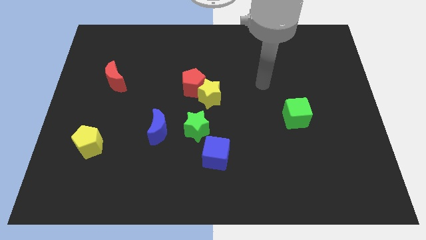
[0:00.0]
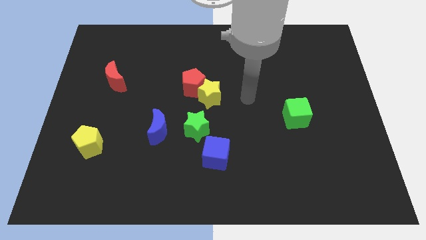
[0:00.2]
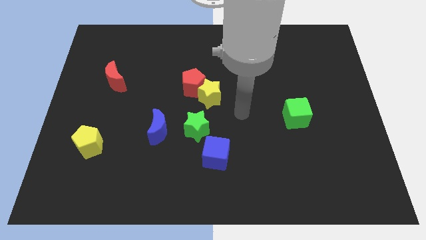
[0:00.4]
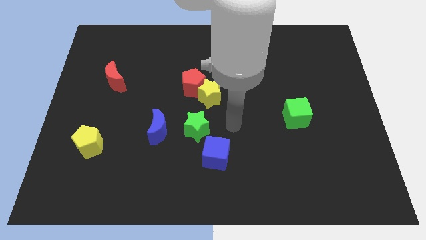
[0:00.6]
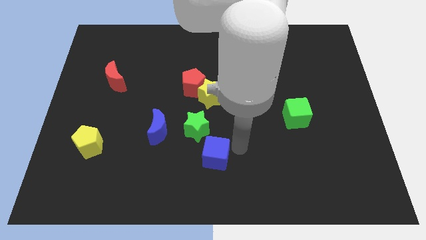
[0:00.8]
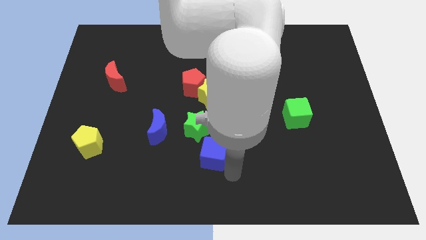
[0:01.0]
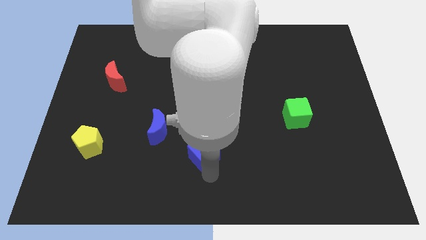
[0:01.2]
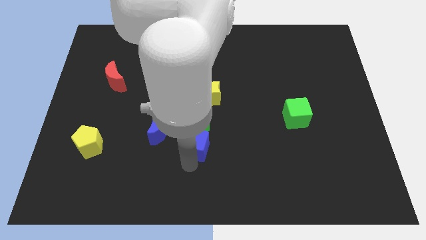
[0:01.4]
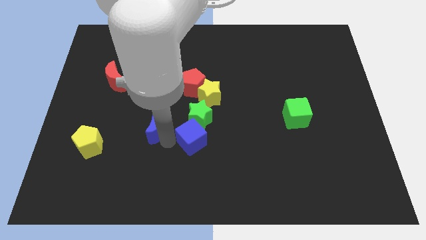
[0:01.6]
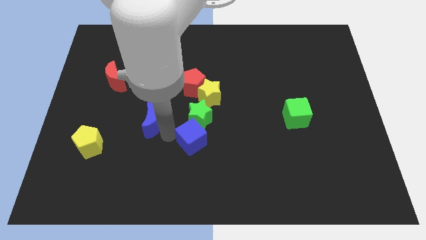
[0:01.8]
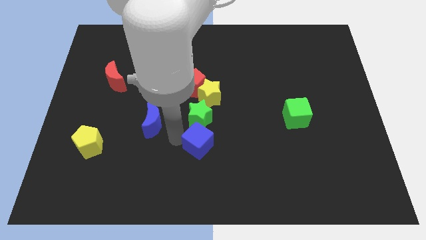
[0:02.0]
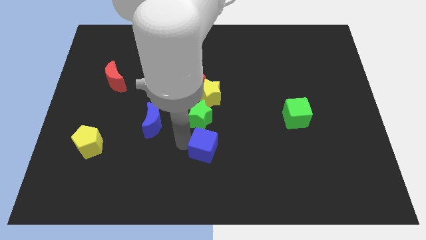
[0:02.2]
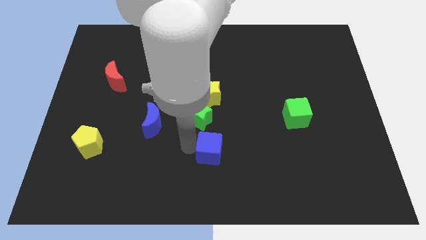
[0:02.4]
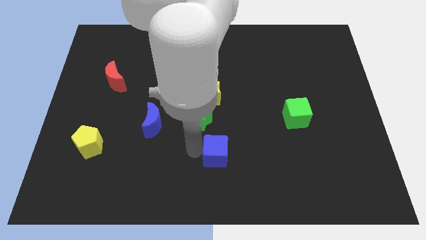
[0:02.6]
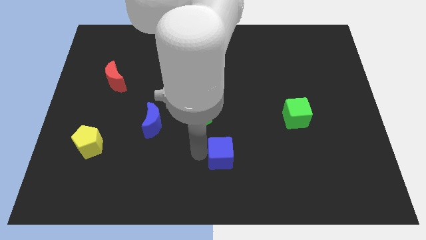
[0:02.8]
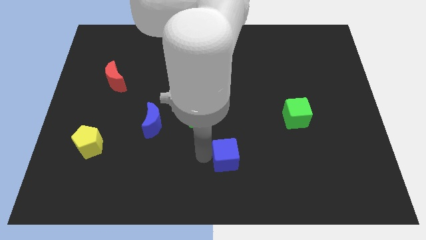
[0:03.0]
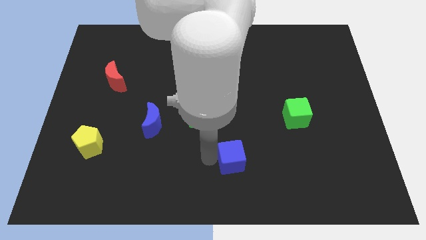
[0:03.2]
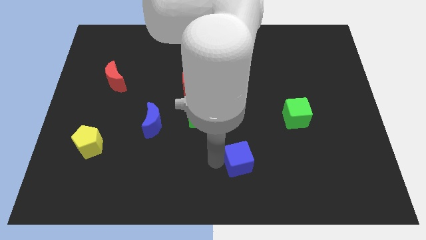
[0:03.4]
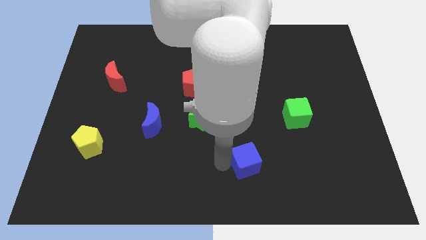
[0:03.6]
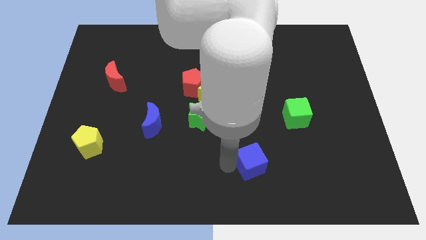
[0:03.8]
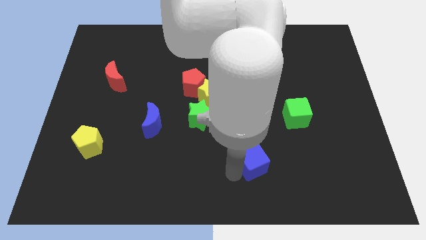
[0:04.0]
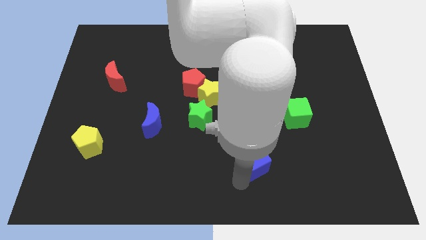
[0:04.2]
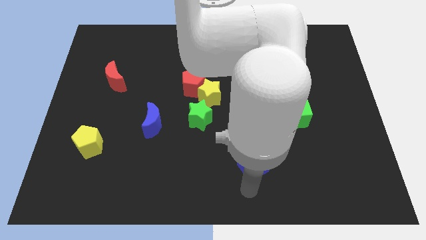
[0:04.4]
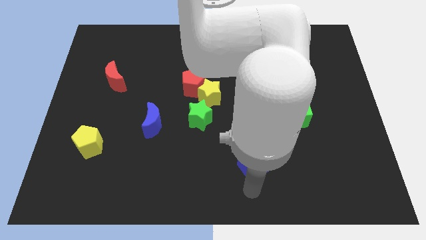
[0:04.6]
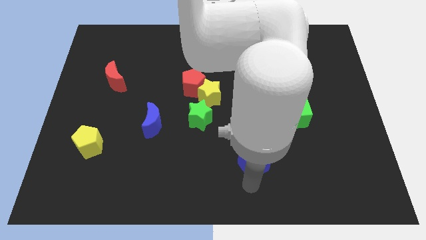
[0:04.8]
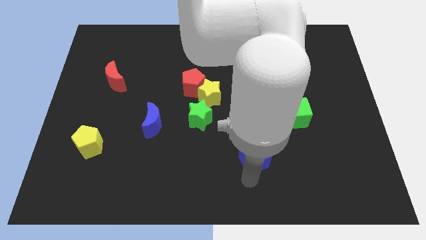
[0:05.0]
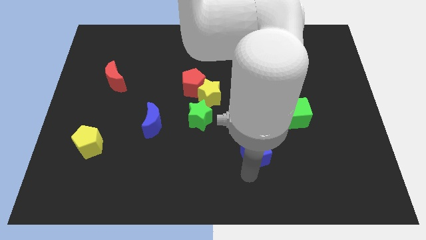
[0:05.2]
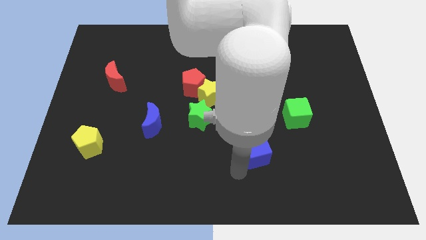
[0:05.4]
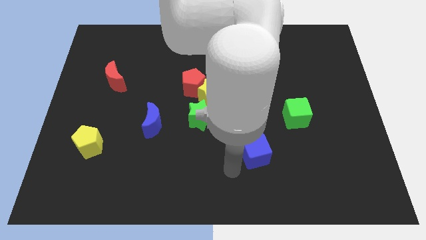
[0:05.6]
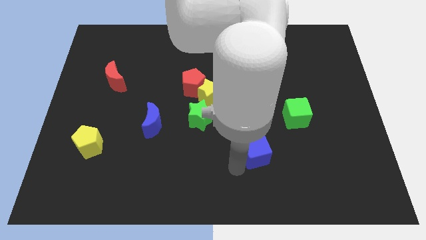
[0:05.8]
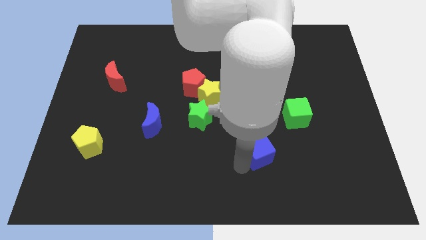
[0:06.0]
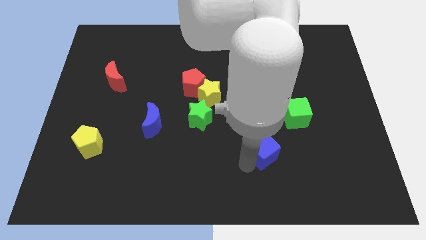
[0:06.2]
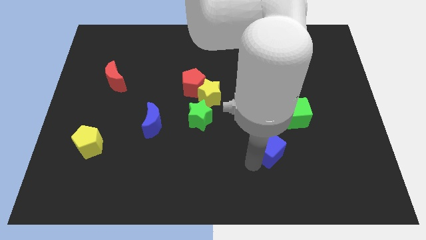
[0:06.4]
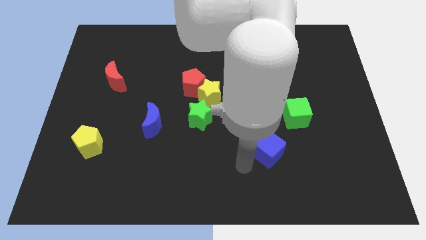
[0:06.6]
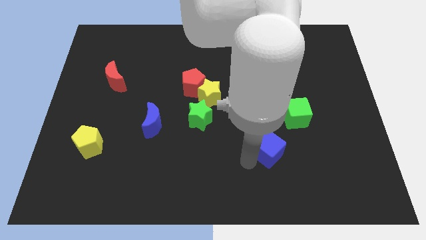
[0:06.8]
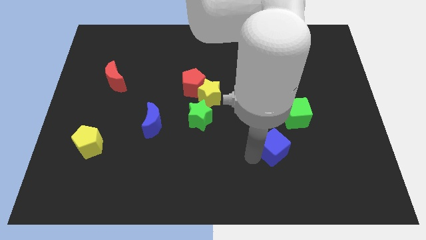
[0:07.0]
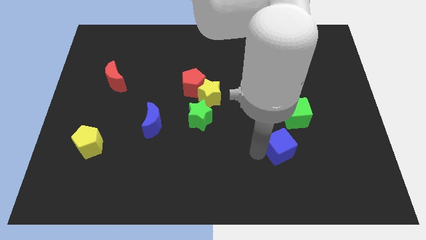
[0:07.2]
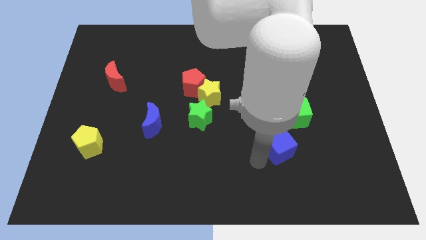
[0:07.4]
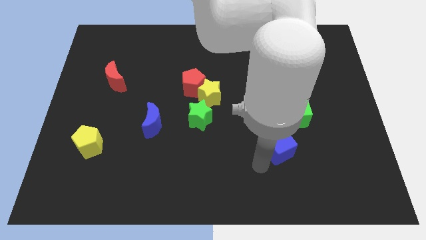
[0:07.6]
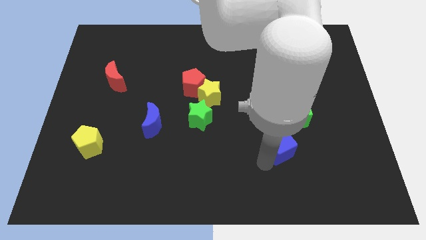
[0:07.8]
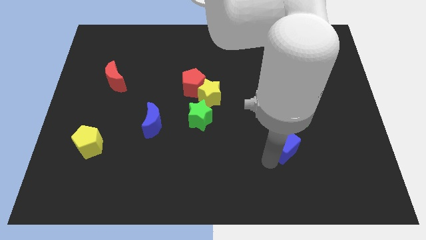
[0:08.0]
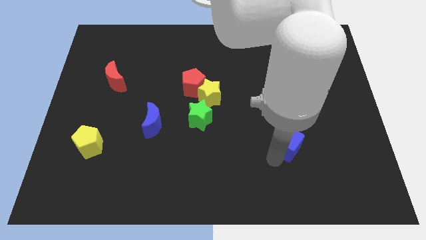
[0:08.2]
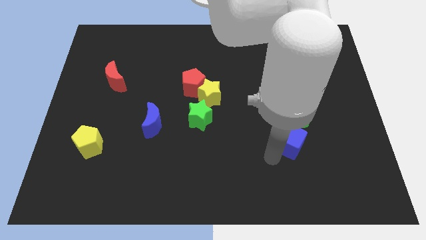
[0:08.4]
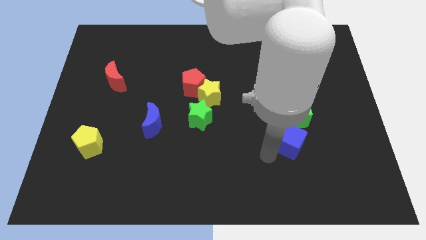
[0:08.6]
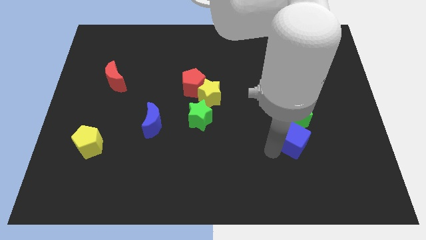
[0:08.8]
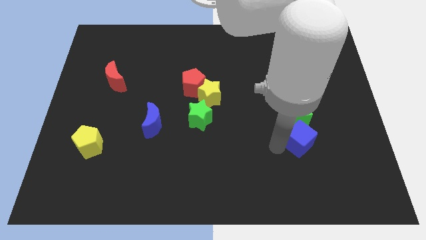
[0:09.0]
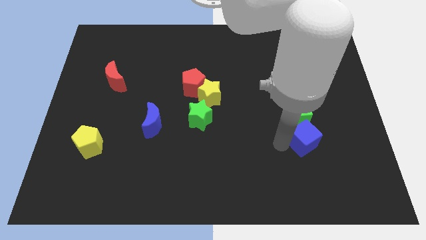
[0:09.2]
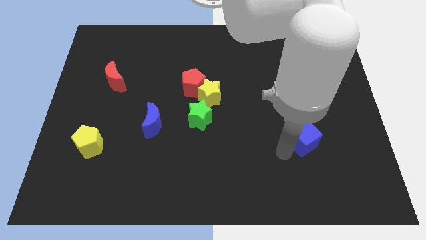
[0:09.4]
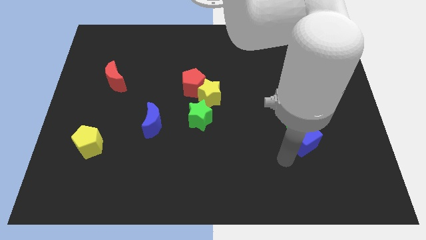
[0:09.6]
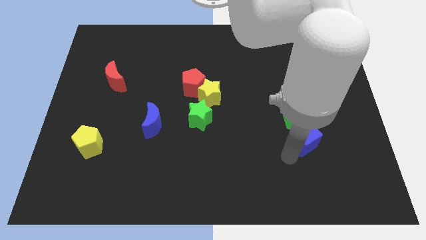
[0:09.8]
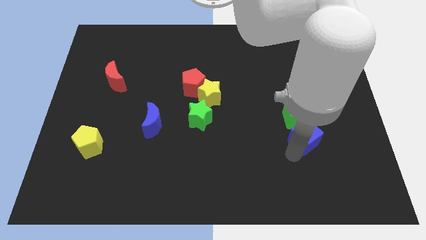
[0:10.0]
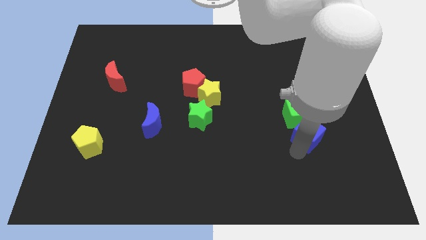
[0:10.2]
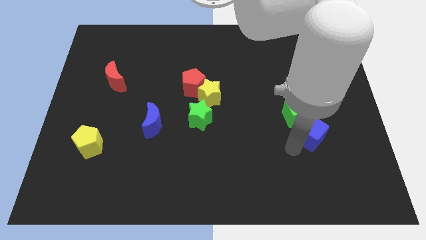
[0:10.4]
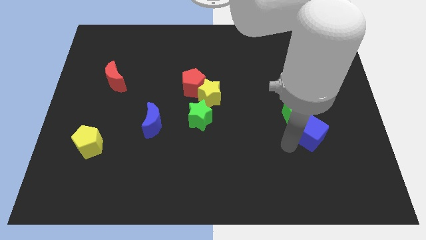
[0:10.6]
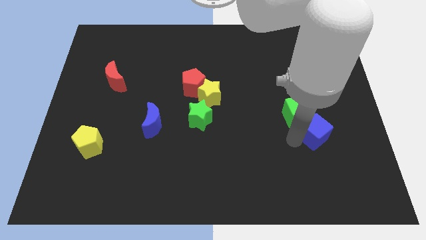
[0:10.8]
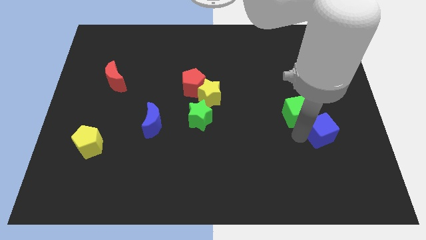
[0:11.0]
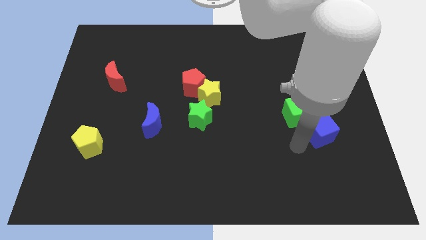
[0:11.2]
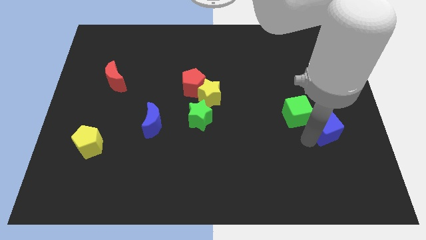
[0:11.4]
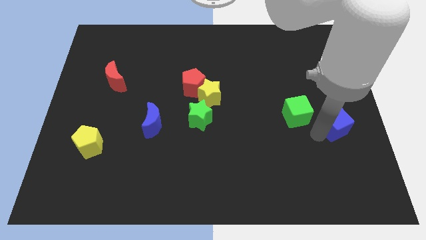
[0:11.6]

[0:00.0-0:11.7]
slide the blue cube to the right side

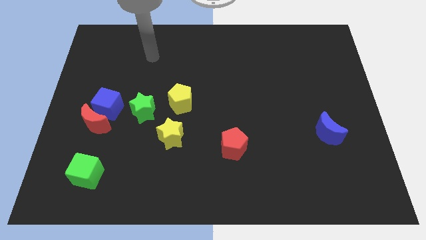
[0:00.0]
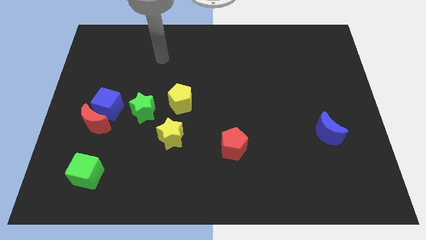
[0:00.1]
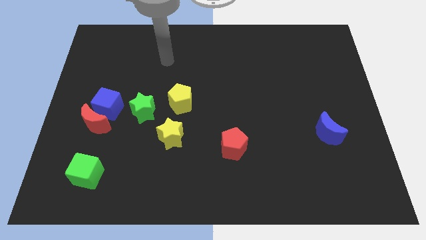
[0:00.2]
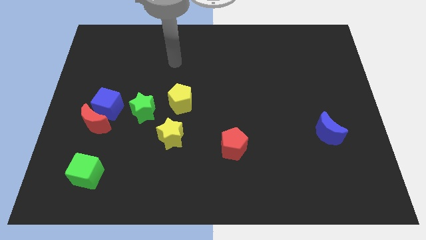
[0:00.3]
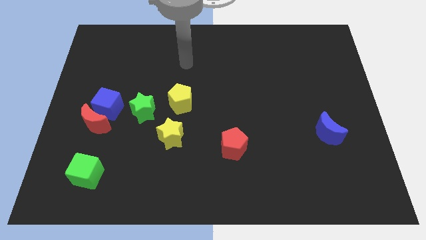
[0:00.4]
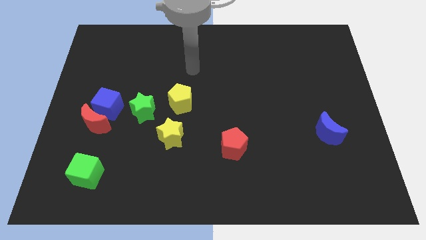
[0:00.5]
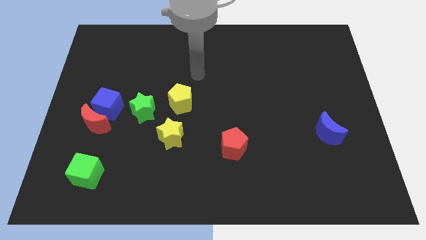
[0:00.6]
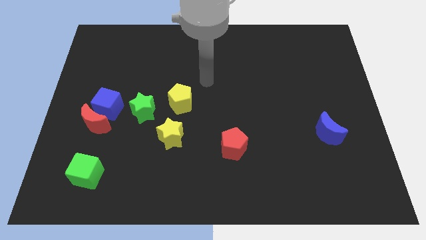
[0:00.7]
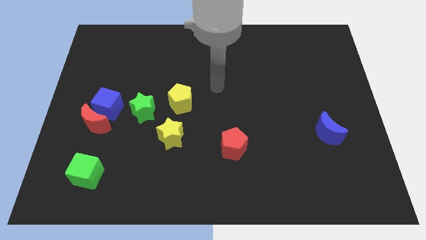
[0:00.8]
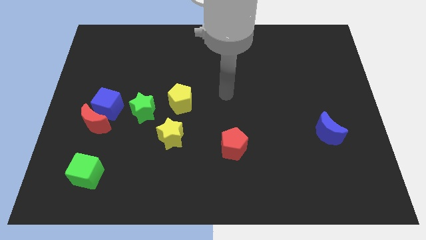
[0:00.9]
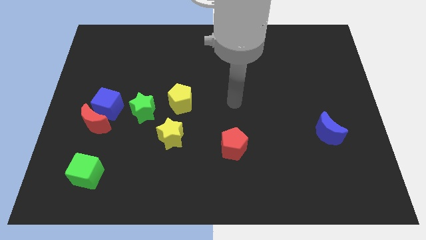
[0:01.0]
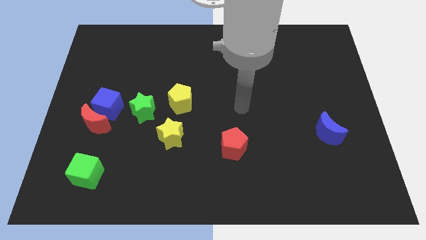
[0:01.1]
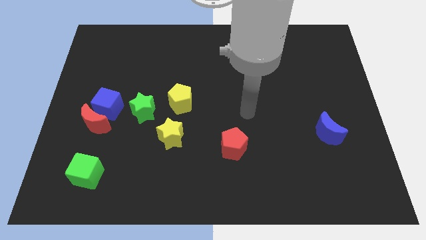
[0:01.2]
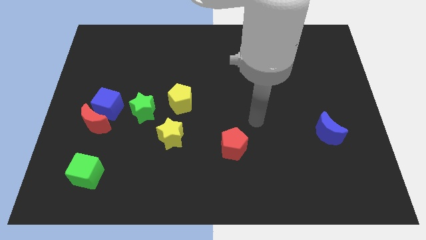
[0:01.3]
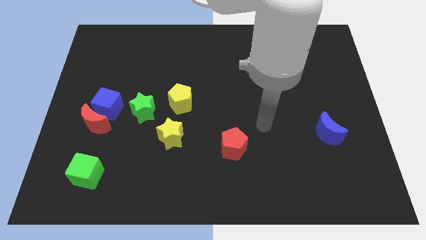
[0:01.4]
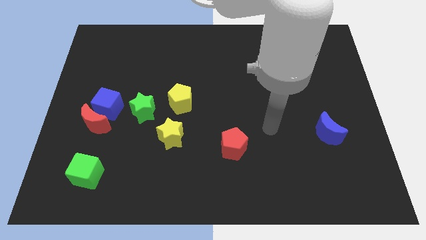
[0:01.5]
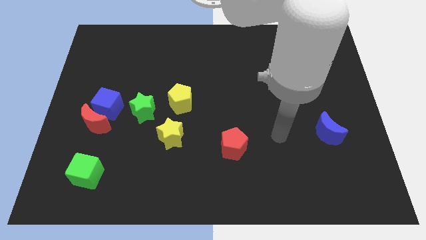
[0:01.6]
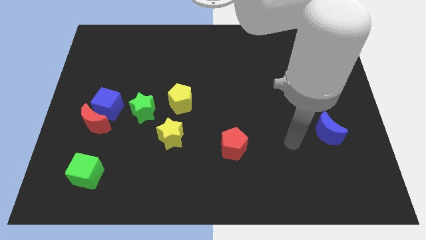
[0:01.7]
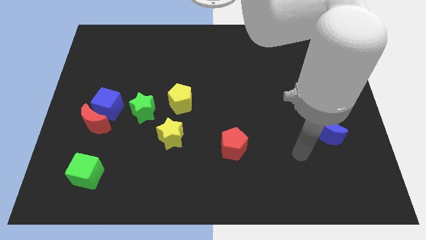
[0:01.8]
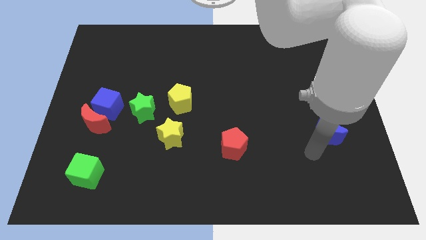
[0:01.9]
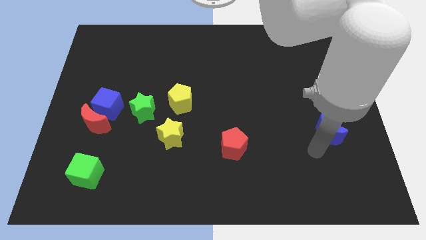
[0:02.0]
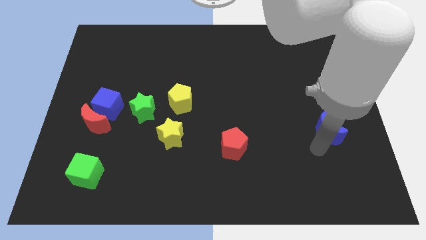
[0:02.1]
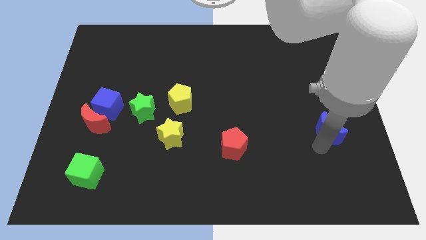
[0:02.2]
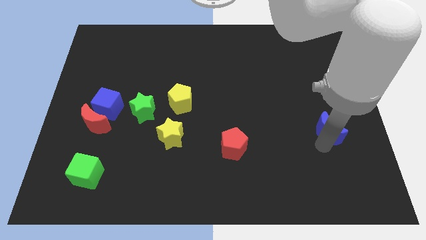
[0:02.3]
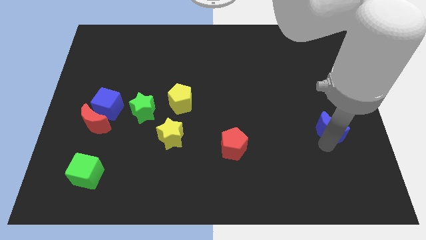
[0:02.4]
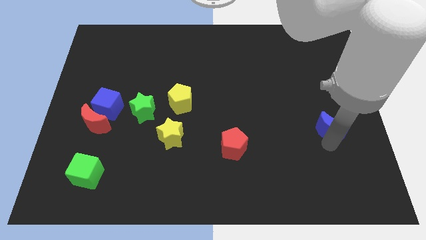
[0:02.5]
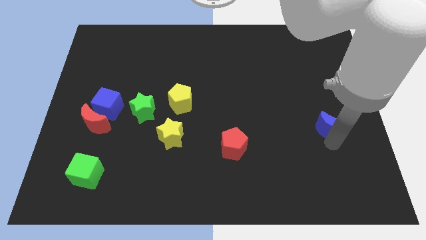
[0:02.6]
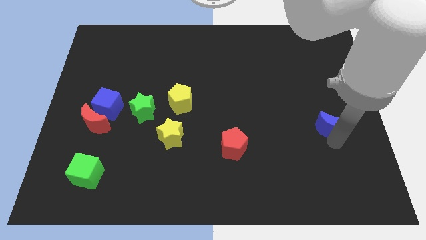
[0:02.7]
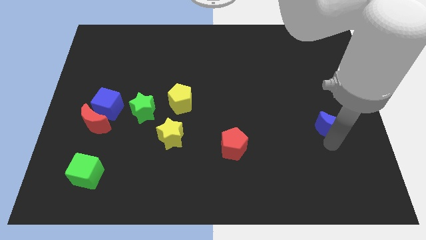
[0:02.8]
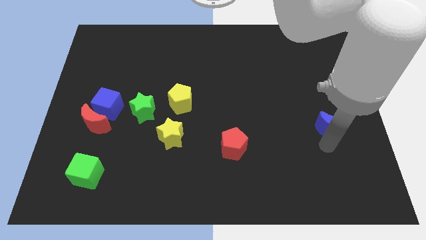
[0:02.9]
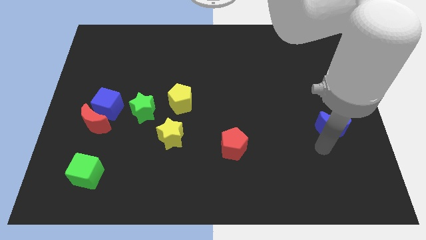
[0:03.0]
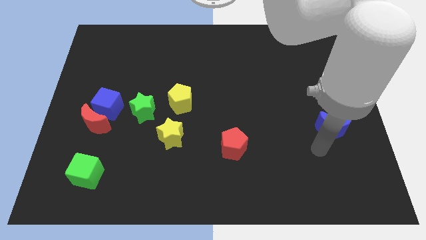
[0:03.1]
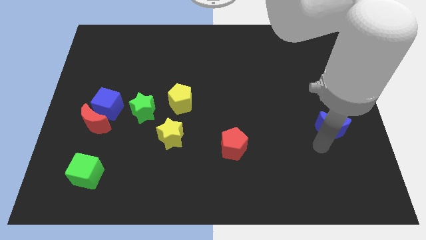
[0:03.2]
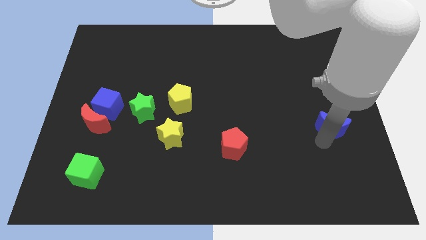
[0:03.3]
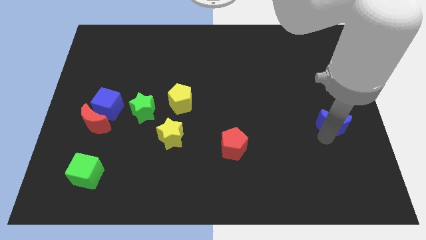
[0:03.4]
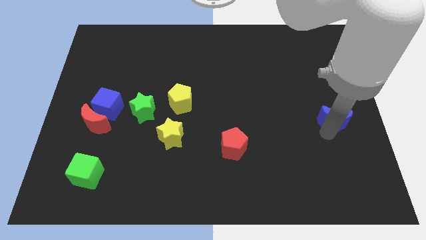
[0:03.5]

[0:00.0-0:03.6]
put the blue moon to the center right
